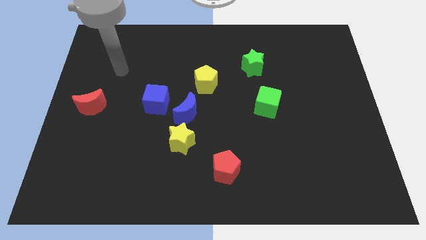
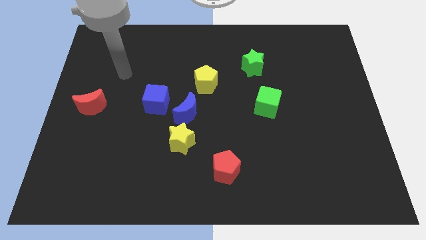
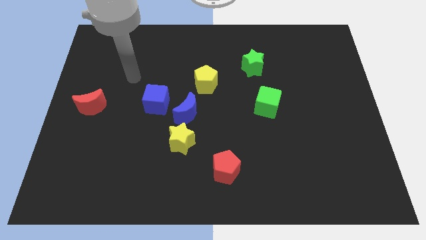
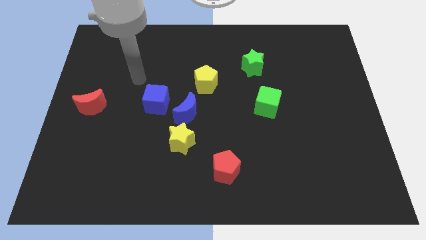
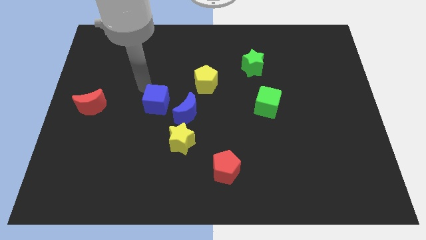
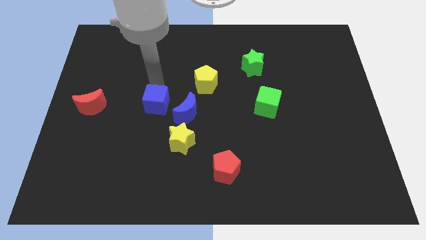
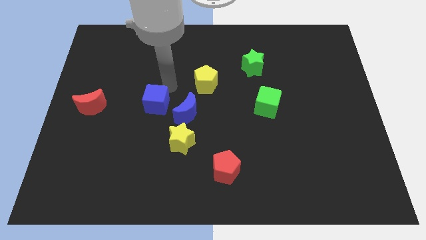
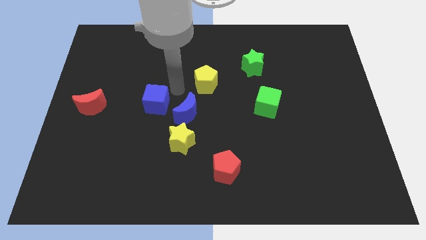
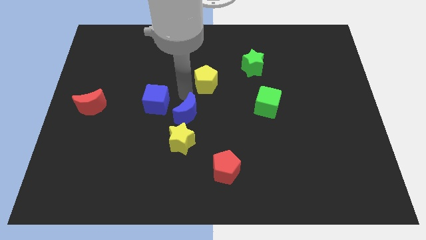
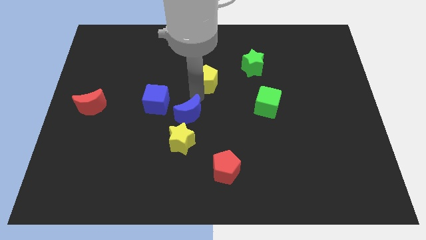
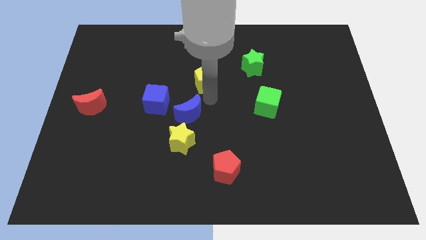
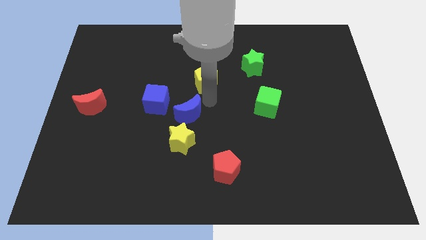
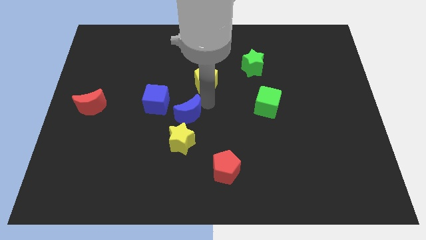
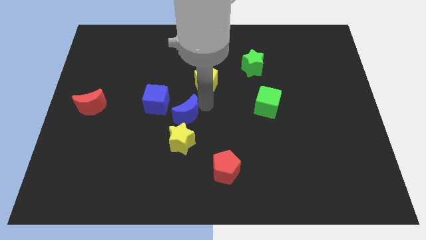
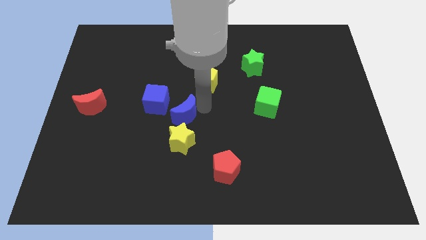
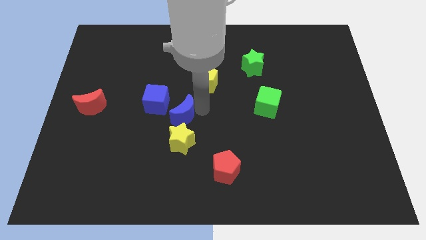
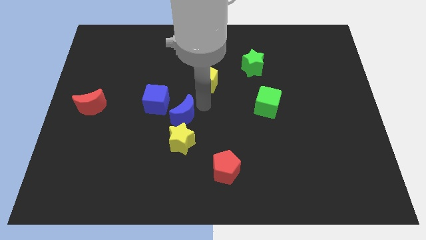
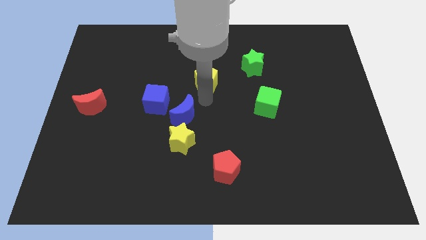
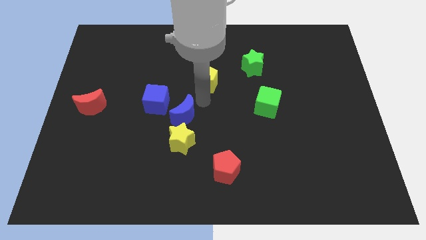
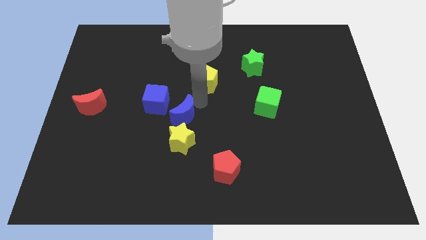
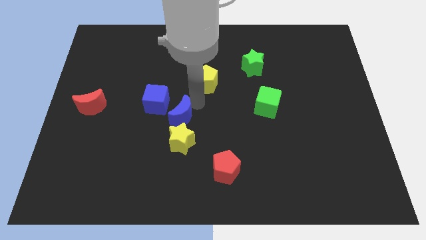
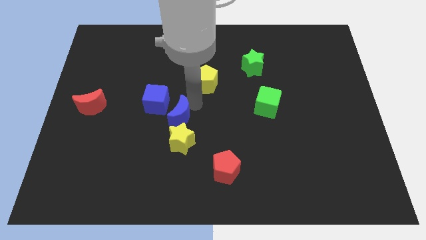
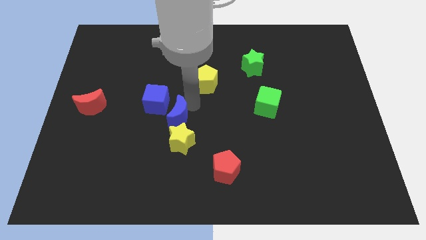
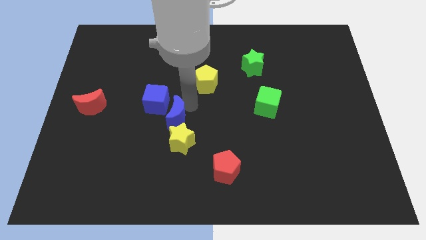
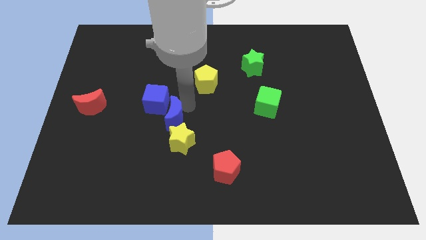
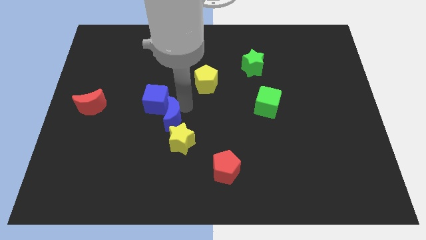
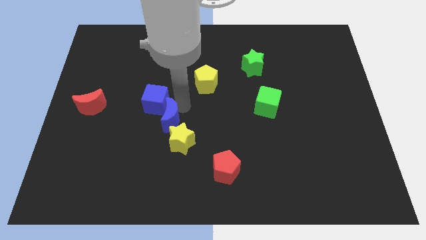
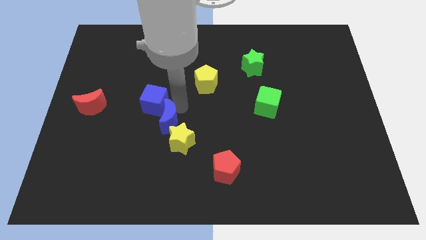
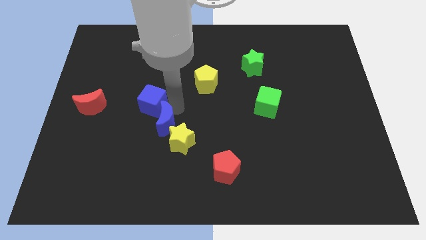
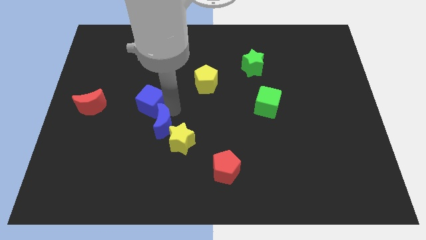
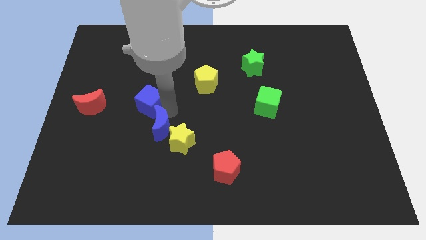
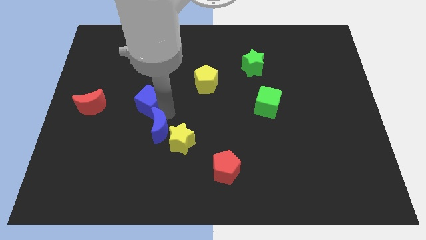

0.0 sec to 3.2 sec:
slightly push the blue moon down and to the left diagonally

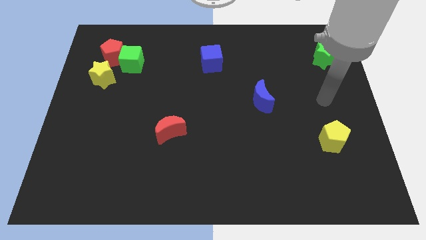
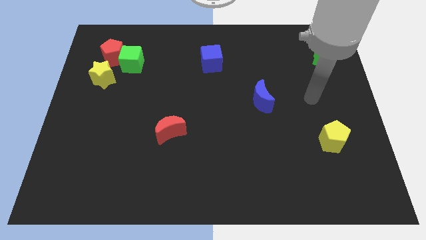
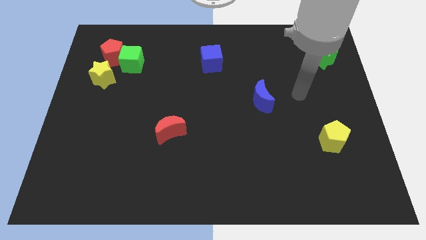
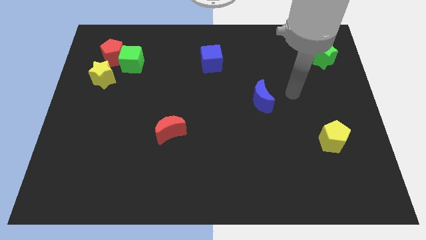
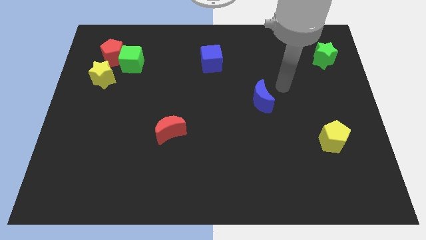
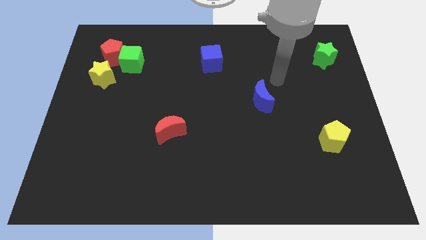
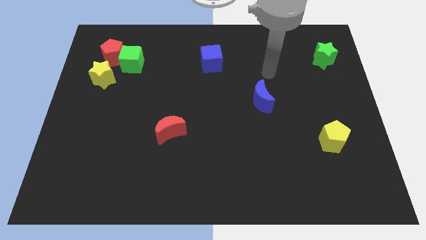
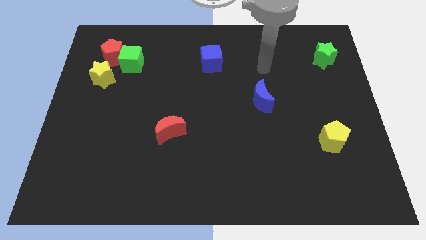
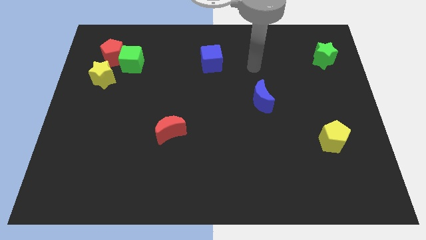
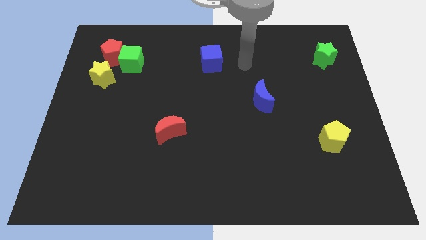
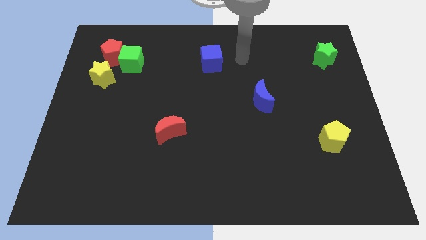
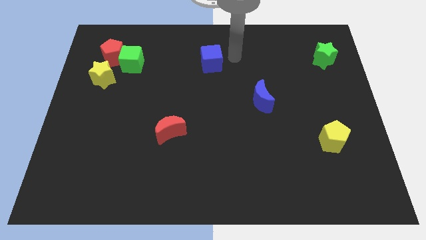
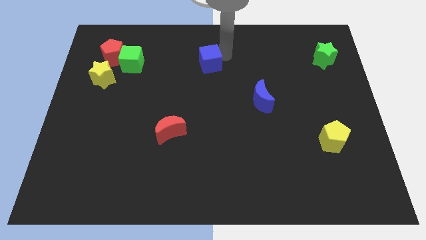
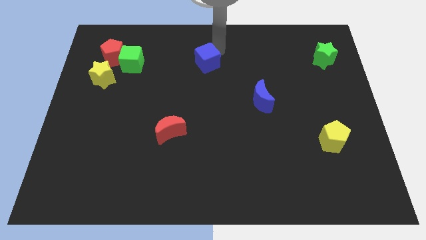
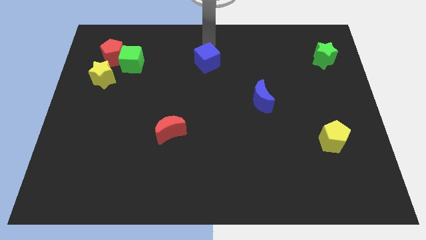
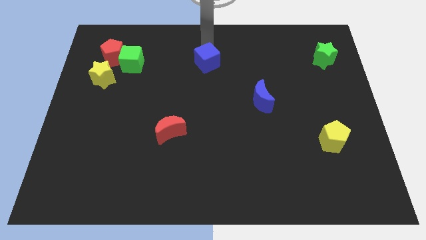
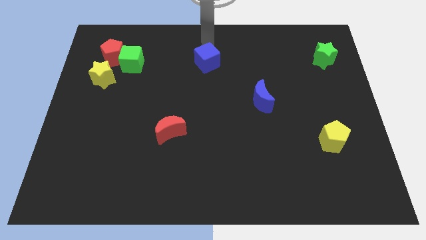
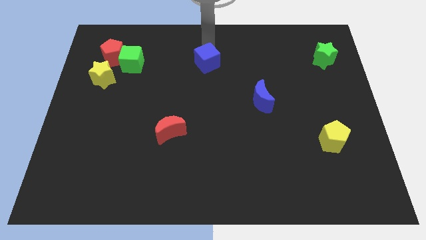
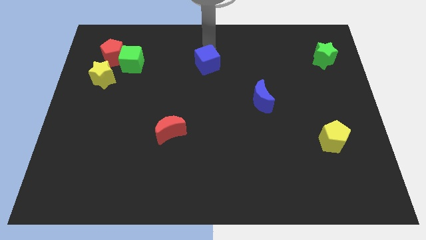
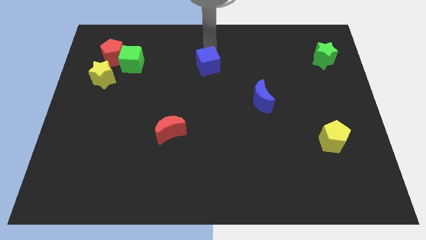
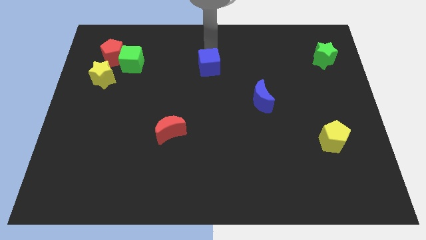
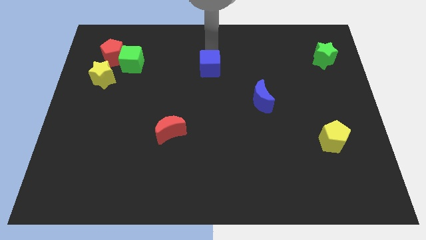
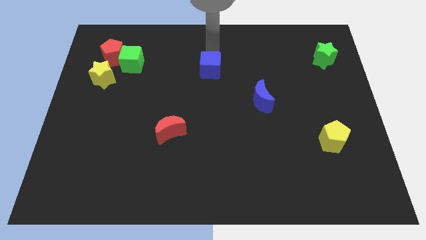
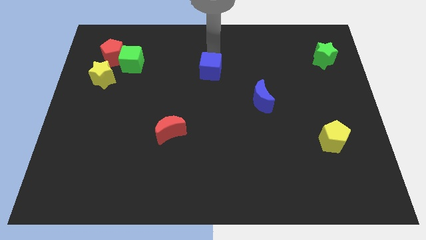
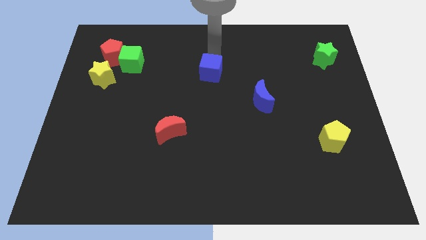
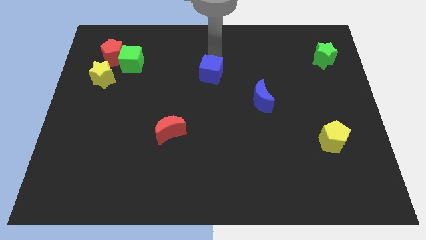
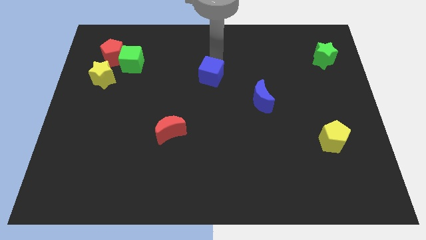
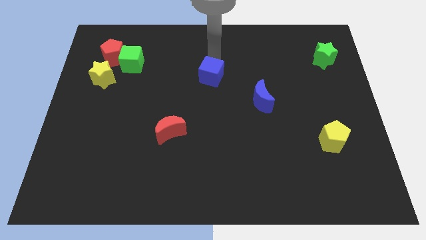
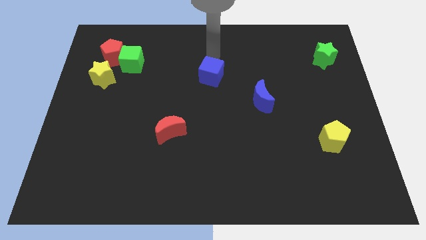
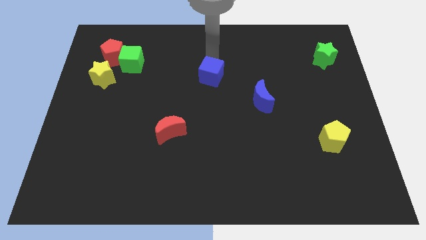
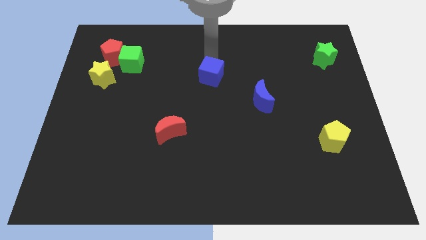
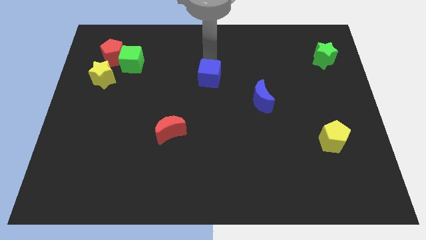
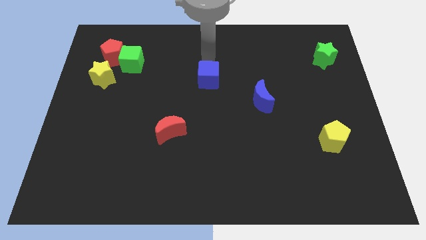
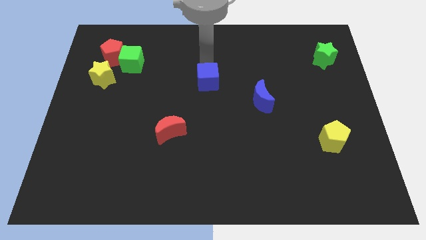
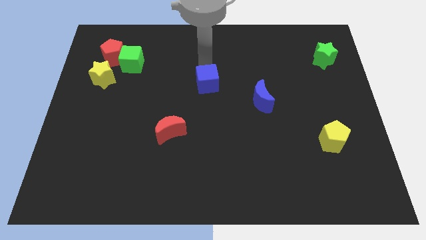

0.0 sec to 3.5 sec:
move the blue cube a little bit downwards

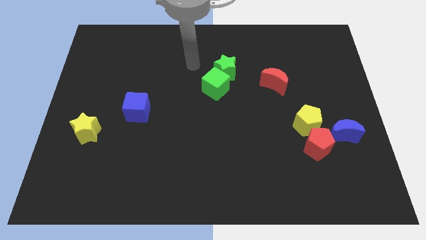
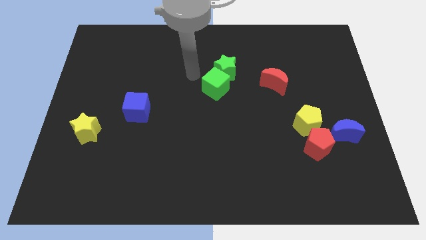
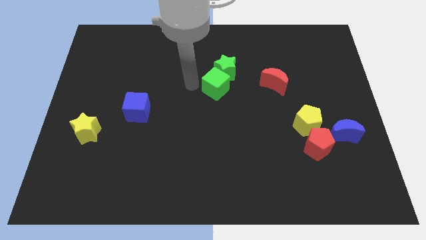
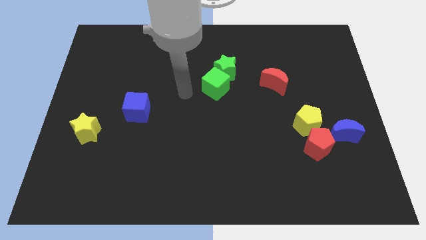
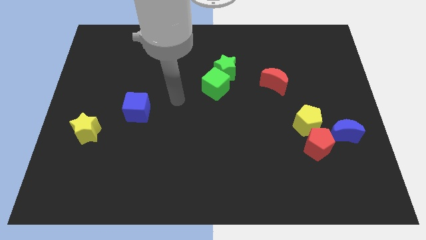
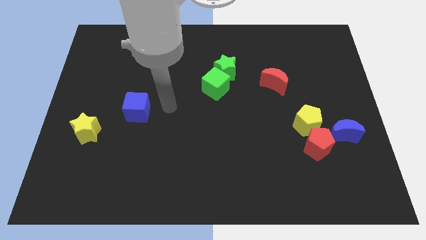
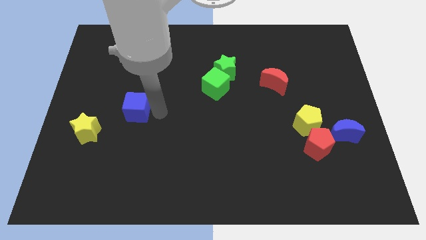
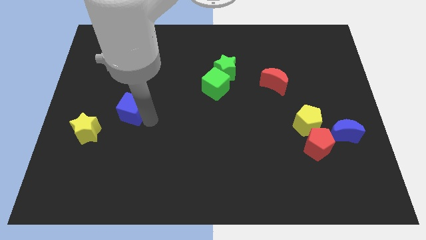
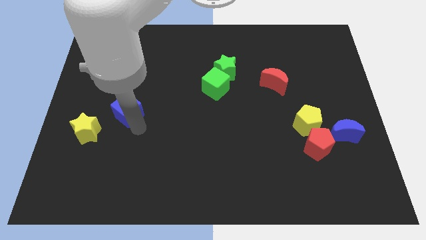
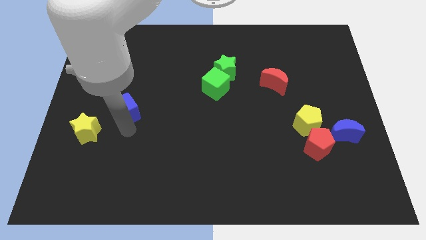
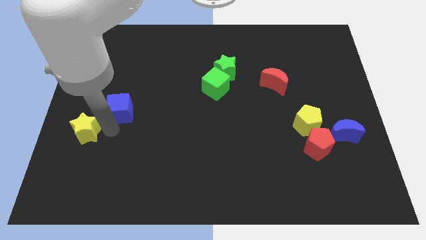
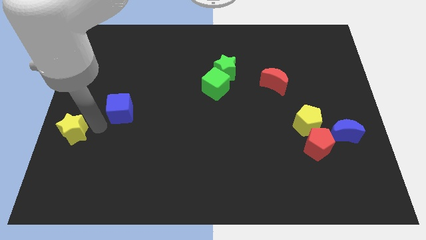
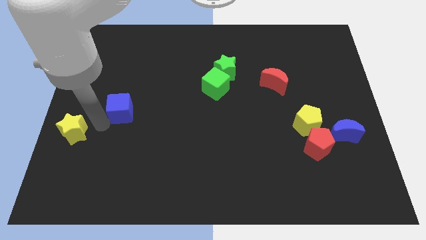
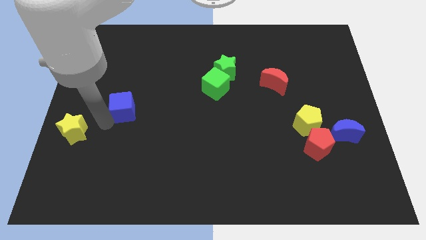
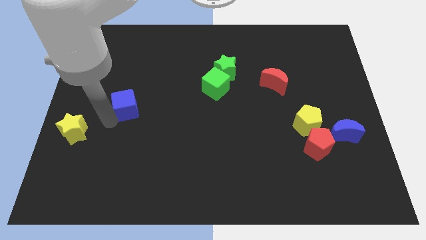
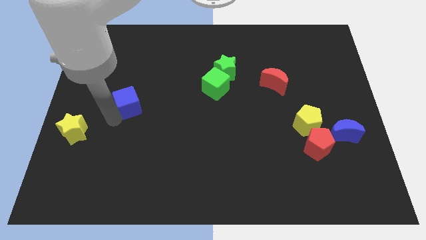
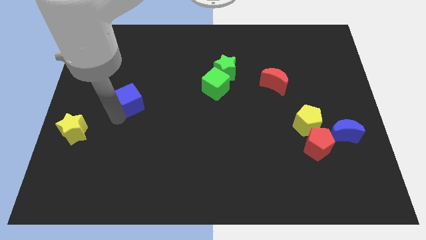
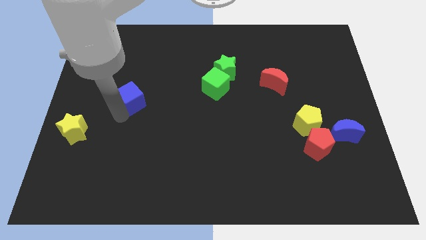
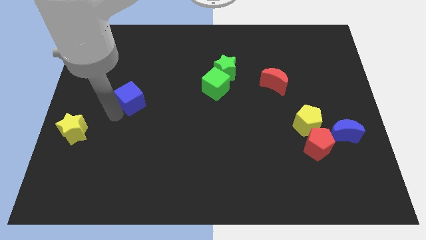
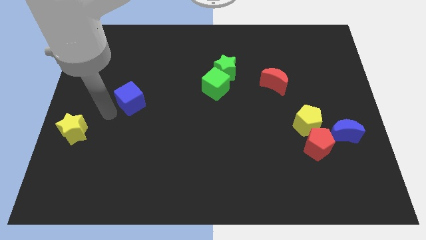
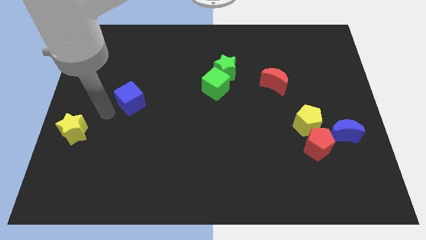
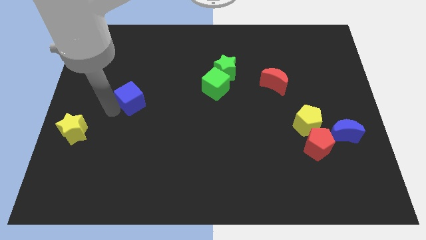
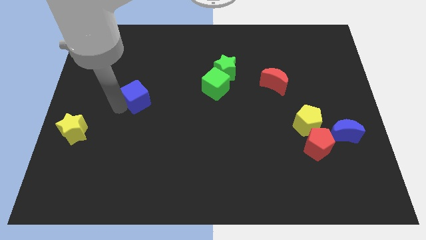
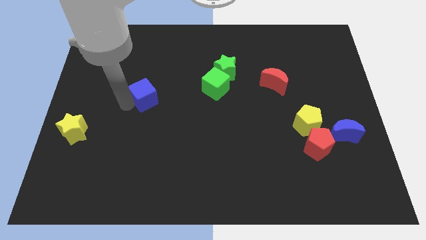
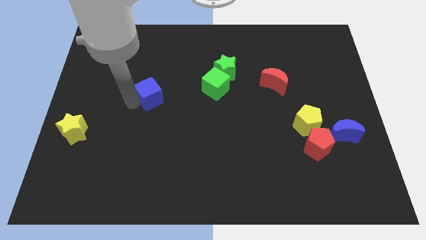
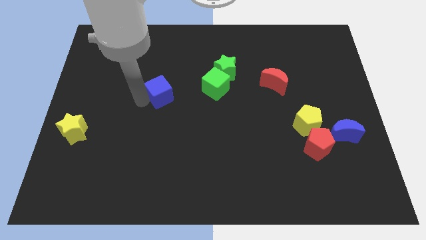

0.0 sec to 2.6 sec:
slightly push the blue cube upwards and to the right diagonally
